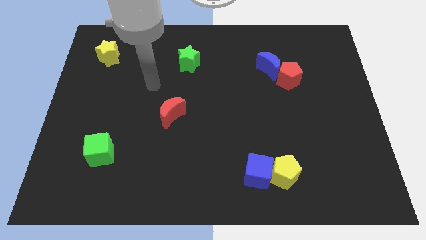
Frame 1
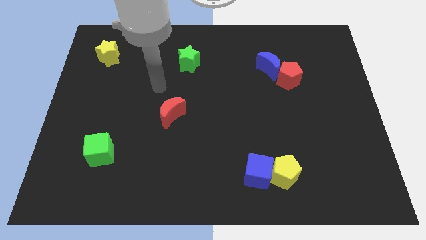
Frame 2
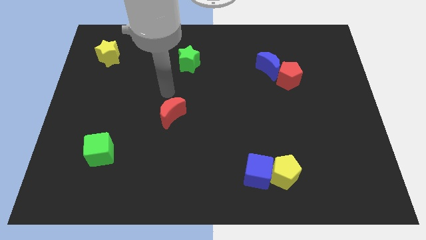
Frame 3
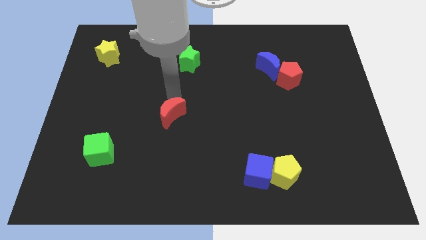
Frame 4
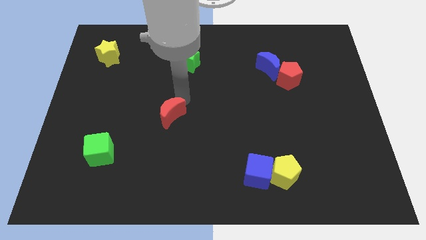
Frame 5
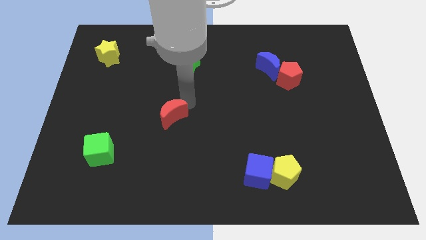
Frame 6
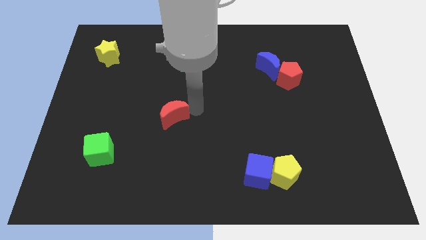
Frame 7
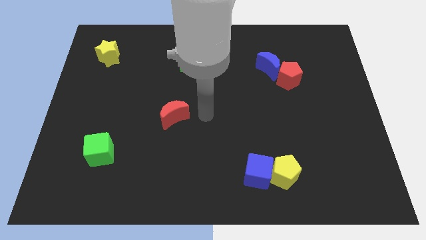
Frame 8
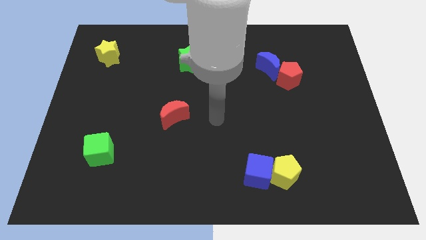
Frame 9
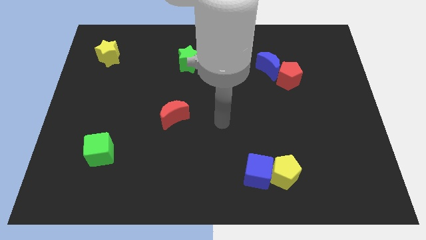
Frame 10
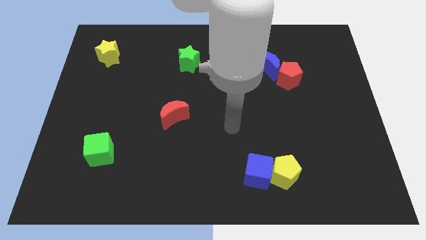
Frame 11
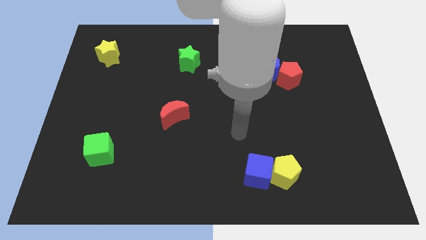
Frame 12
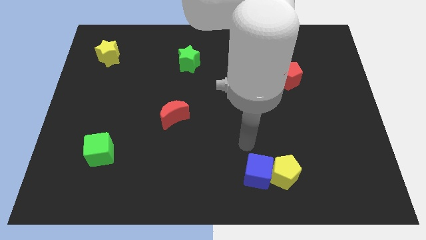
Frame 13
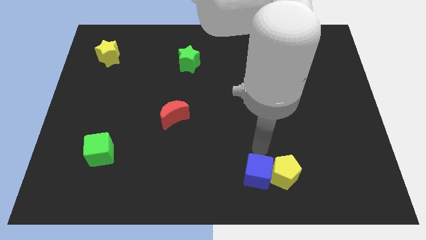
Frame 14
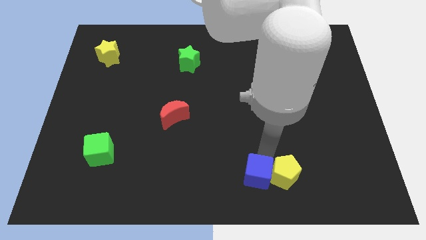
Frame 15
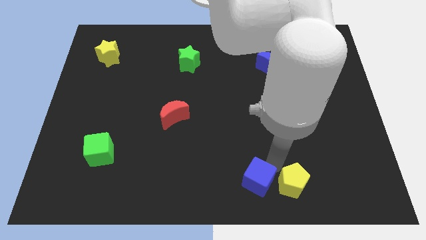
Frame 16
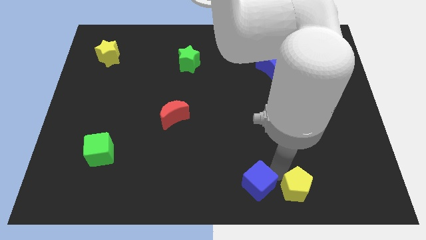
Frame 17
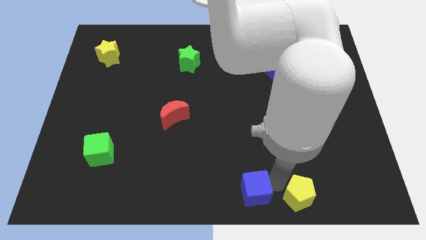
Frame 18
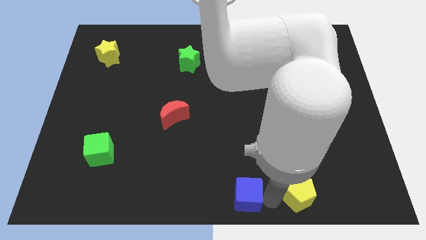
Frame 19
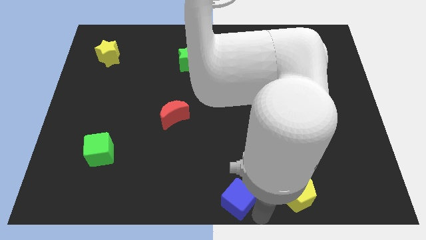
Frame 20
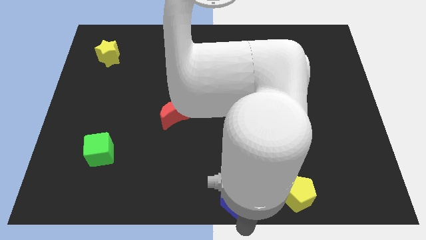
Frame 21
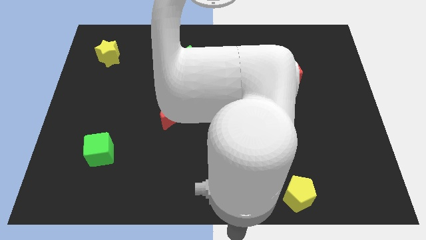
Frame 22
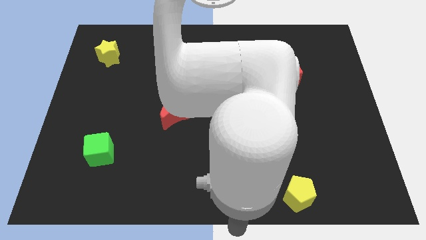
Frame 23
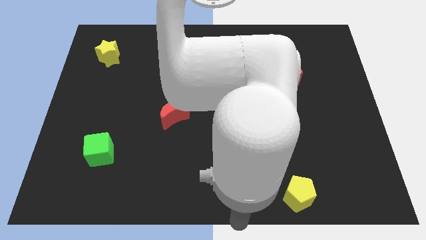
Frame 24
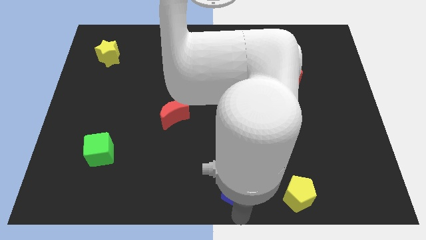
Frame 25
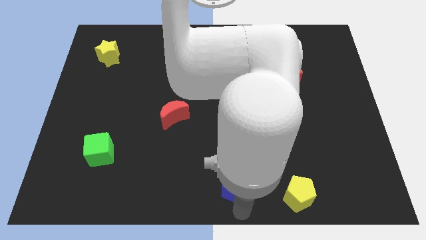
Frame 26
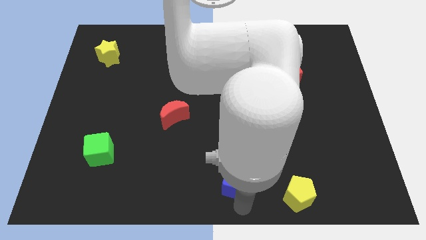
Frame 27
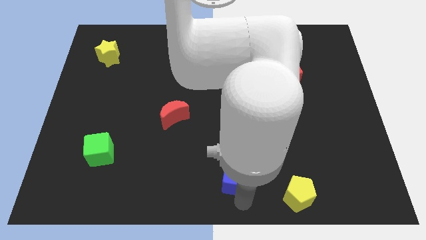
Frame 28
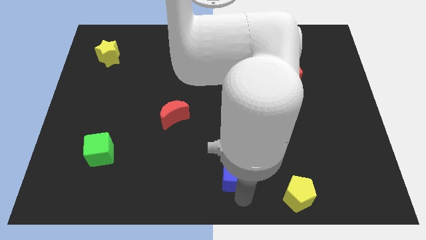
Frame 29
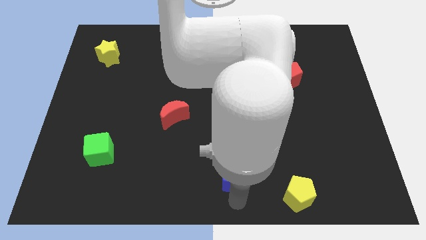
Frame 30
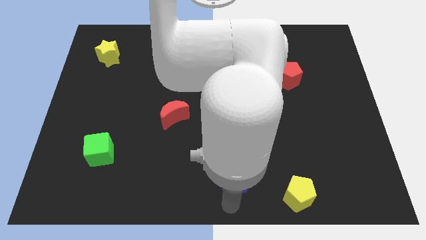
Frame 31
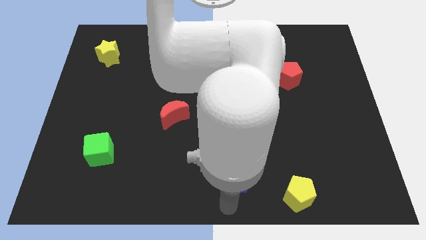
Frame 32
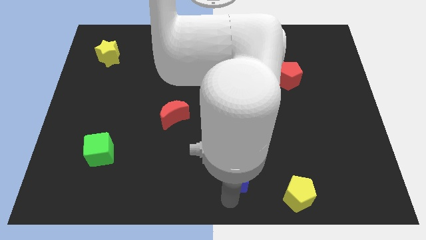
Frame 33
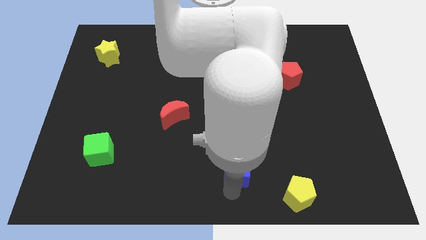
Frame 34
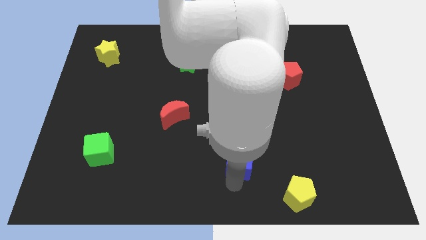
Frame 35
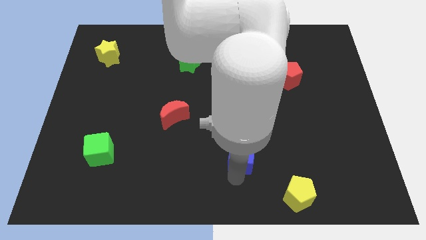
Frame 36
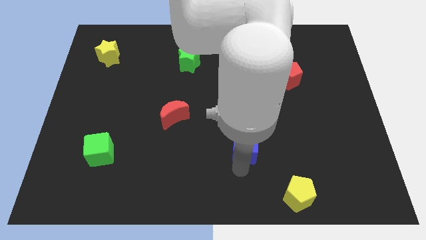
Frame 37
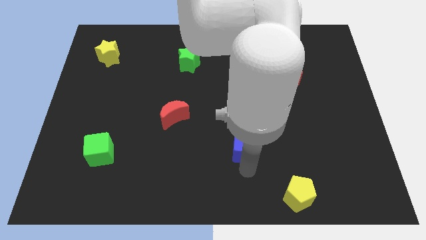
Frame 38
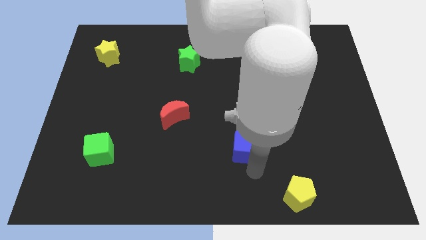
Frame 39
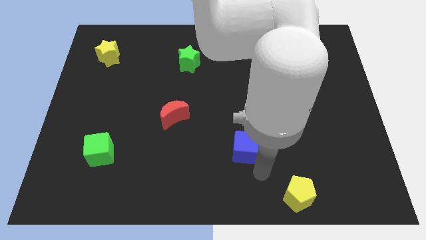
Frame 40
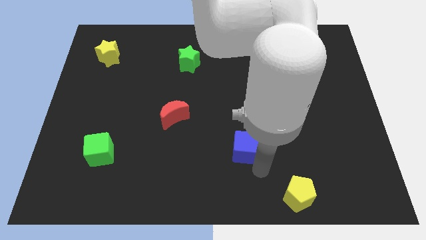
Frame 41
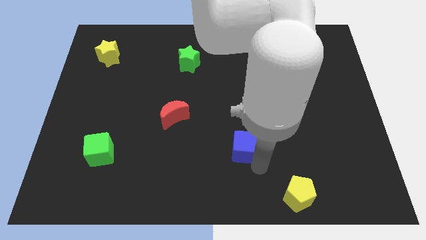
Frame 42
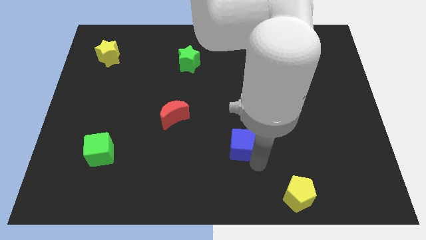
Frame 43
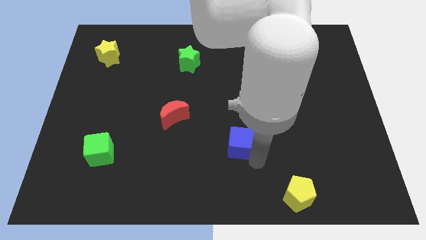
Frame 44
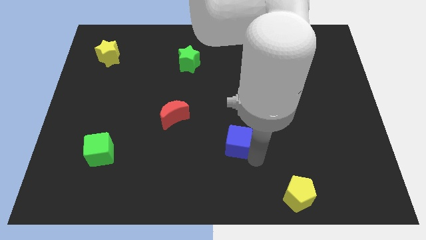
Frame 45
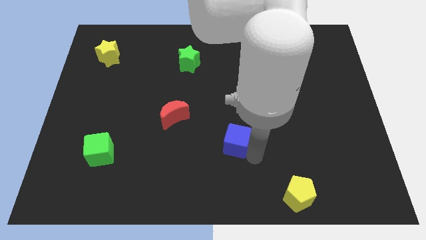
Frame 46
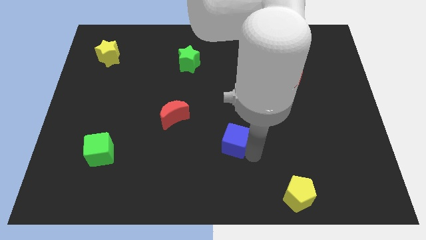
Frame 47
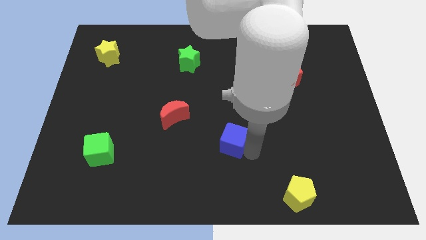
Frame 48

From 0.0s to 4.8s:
slide the blue cube to the center

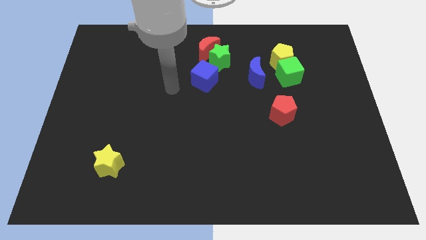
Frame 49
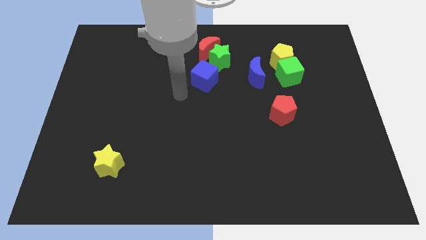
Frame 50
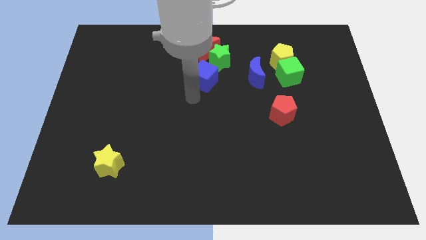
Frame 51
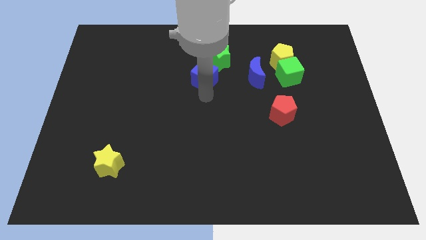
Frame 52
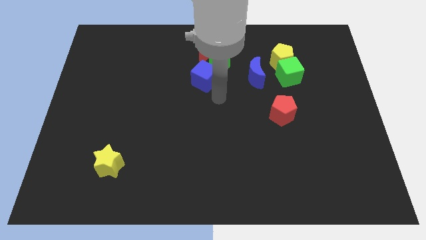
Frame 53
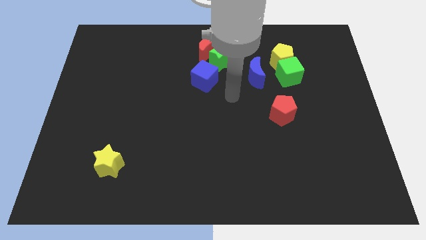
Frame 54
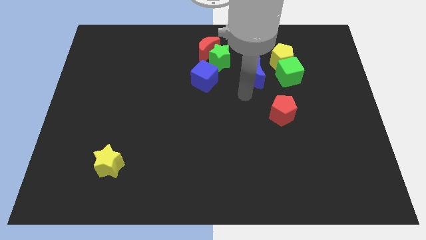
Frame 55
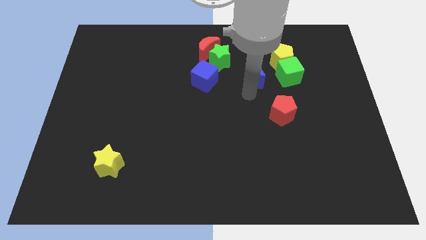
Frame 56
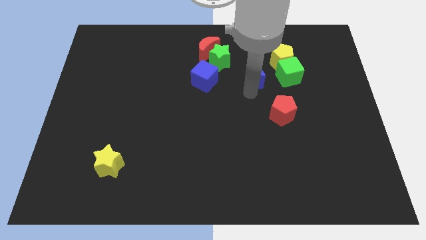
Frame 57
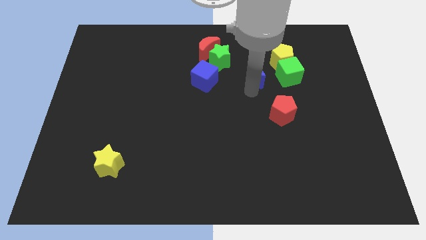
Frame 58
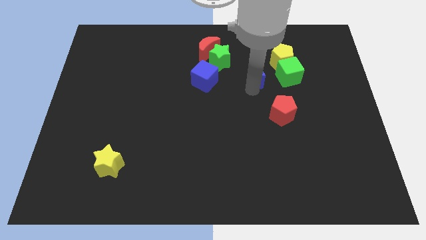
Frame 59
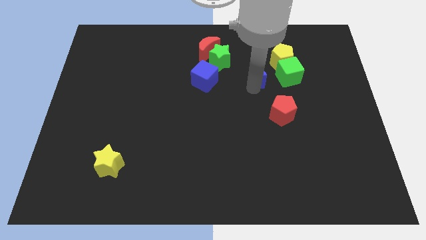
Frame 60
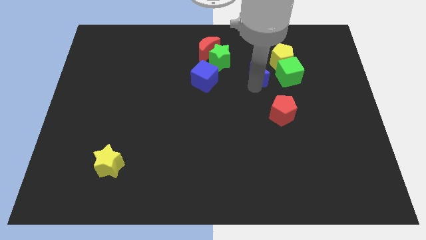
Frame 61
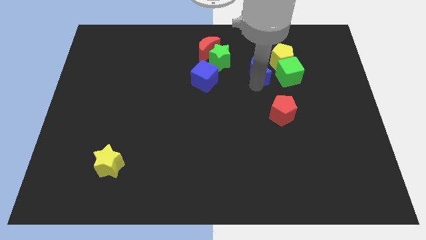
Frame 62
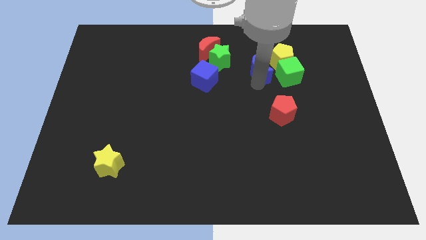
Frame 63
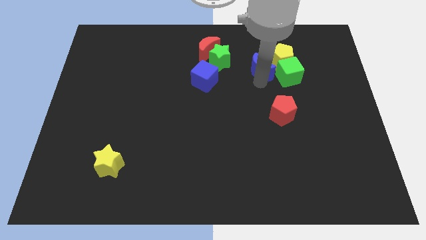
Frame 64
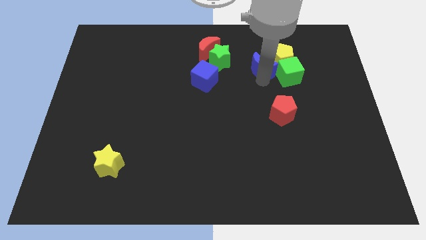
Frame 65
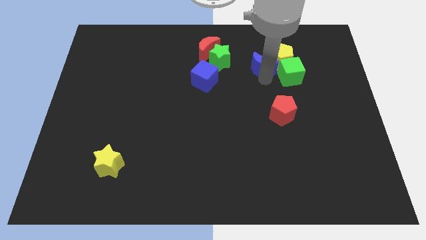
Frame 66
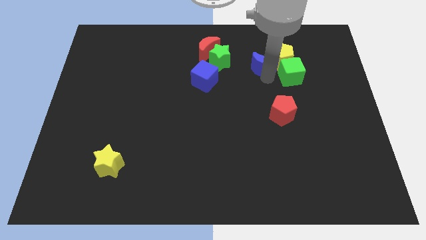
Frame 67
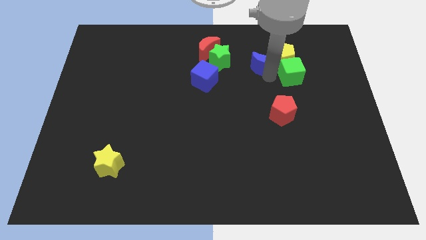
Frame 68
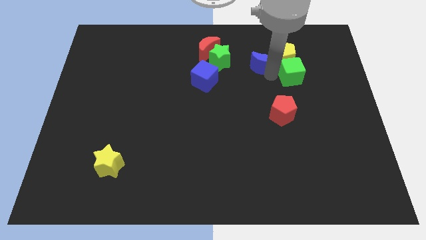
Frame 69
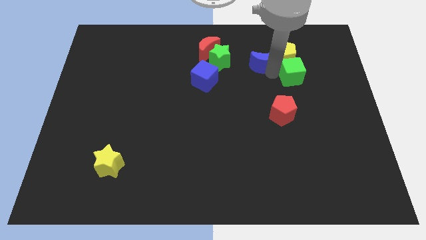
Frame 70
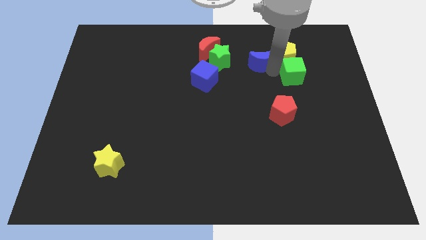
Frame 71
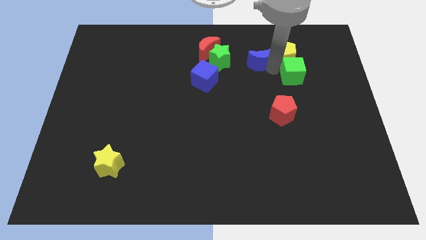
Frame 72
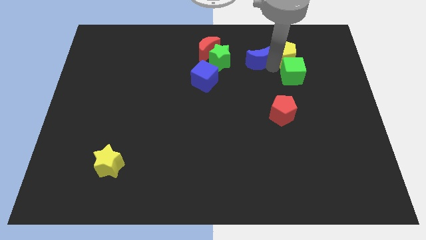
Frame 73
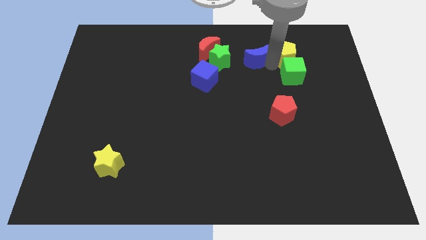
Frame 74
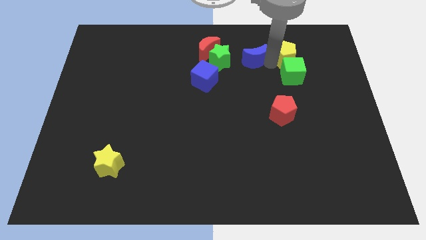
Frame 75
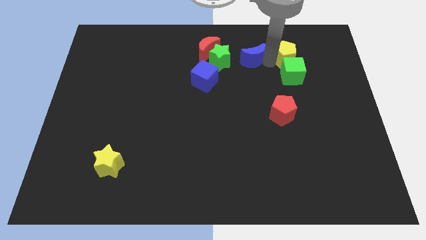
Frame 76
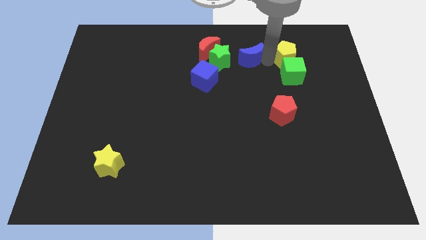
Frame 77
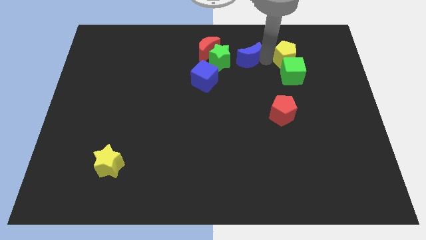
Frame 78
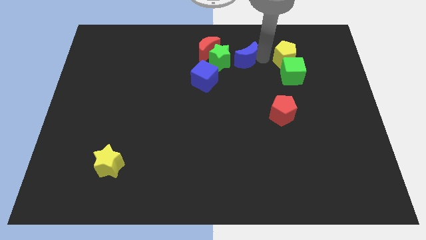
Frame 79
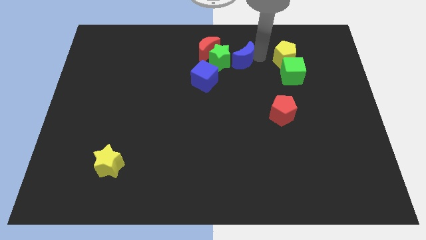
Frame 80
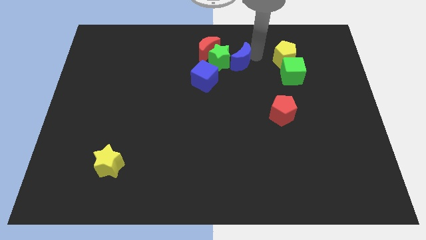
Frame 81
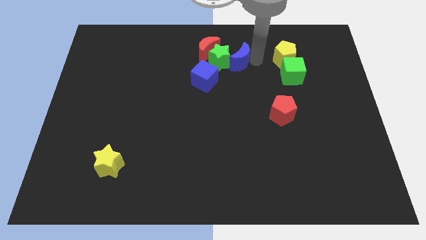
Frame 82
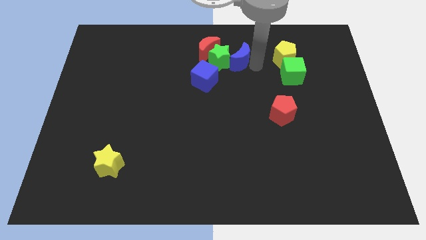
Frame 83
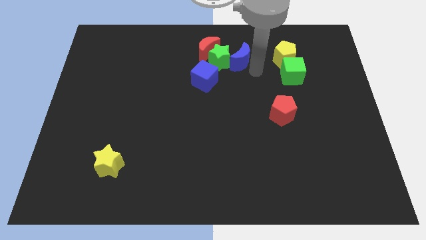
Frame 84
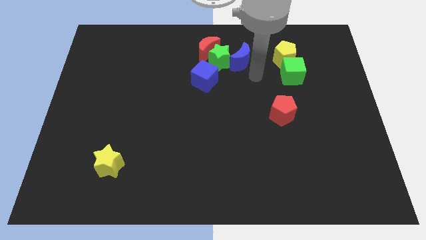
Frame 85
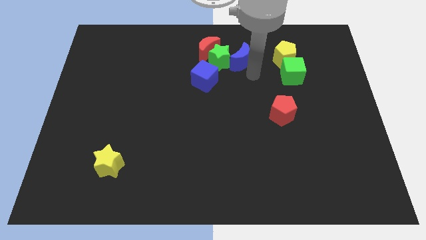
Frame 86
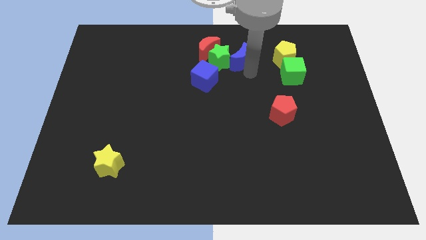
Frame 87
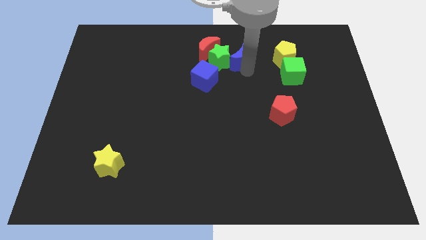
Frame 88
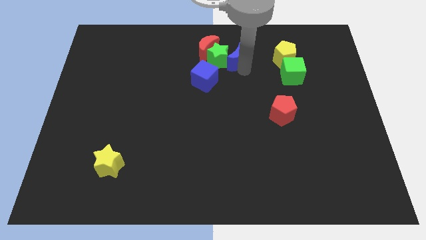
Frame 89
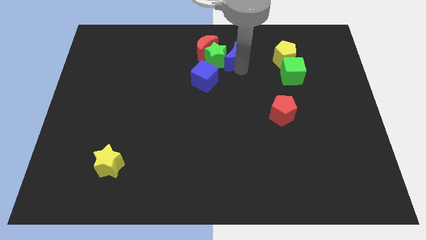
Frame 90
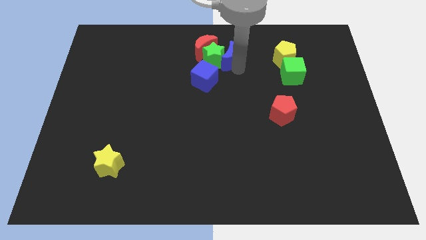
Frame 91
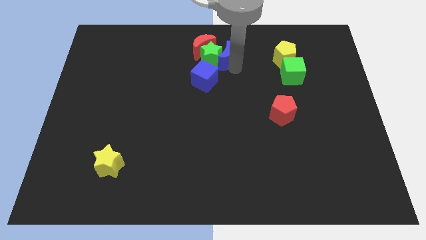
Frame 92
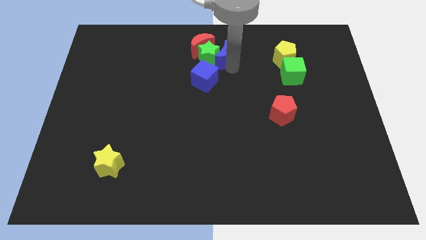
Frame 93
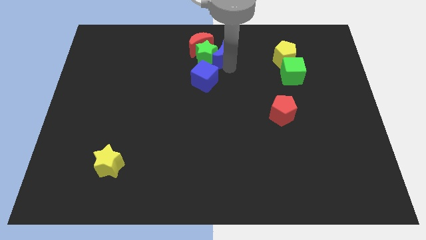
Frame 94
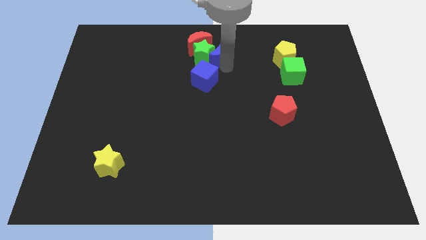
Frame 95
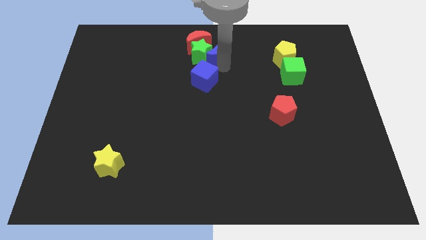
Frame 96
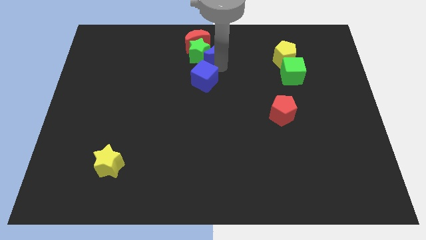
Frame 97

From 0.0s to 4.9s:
put the blue moon to the towards your base
